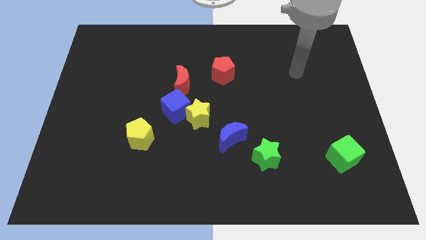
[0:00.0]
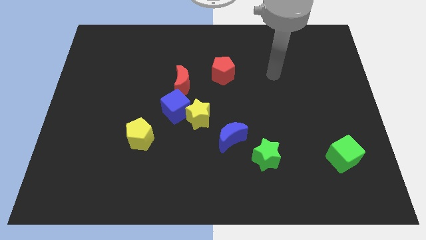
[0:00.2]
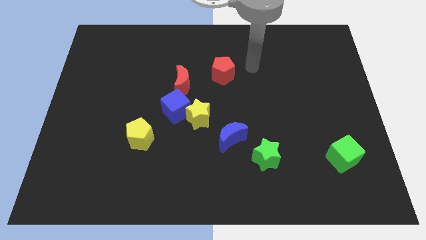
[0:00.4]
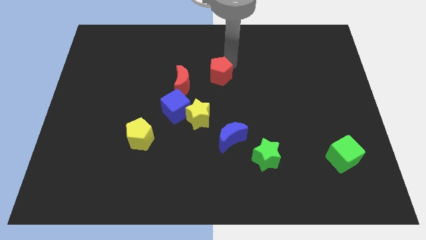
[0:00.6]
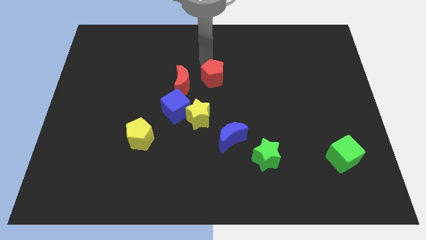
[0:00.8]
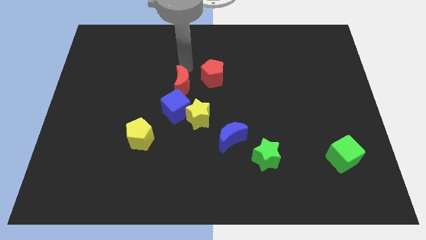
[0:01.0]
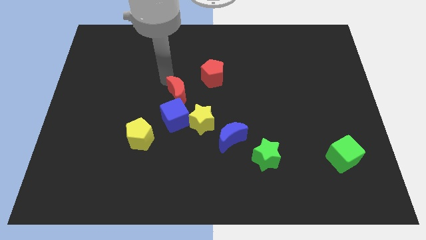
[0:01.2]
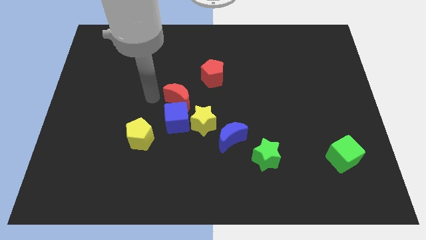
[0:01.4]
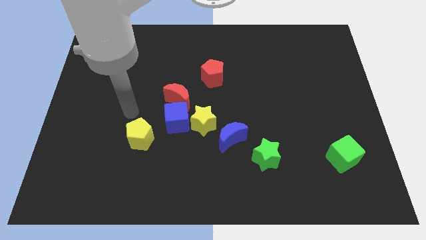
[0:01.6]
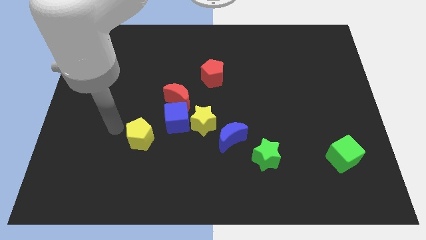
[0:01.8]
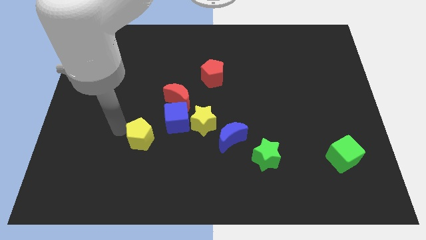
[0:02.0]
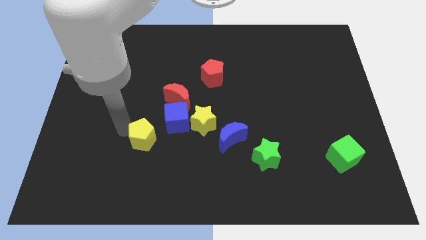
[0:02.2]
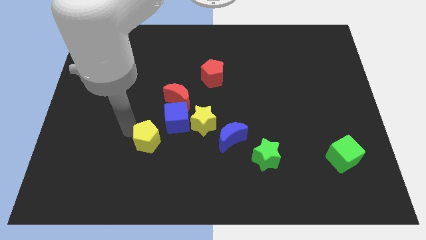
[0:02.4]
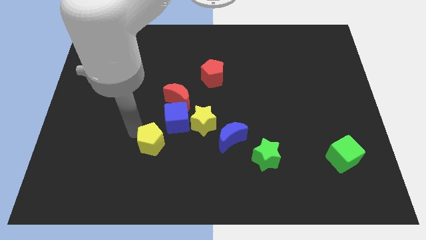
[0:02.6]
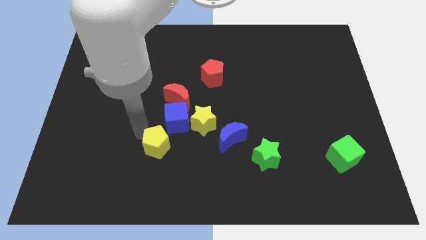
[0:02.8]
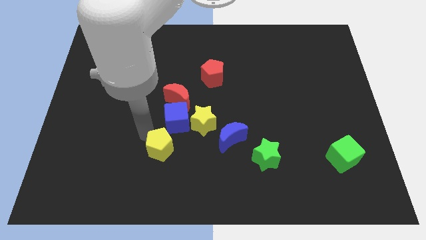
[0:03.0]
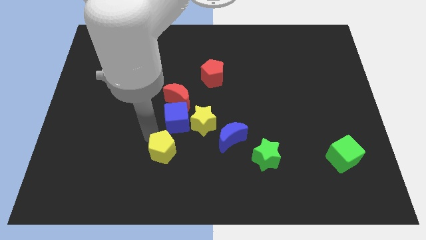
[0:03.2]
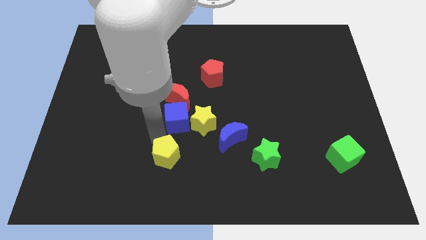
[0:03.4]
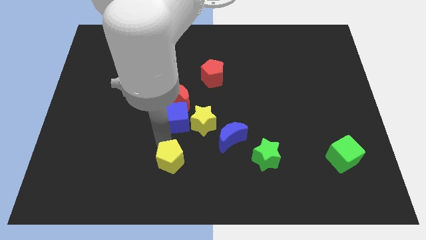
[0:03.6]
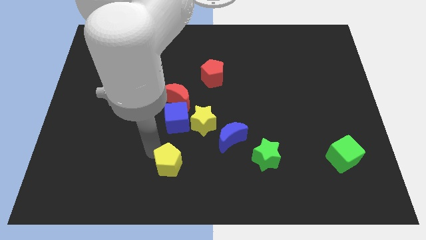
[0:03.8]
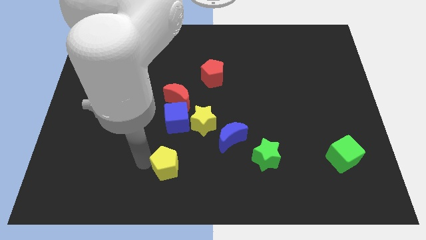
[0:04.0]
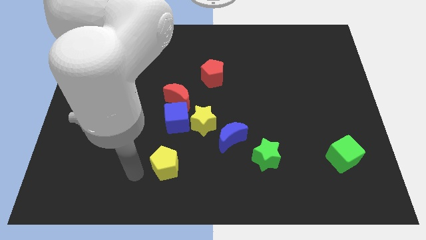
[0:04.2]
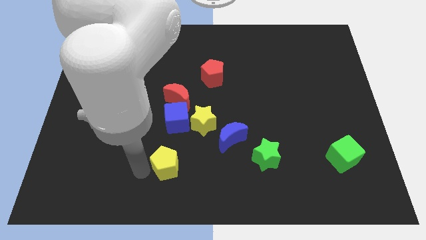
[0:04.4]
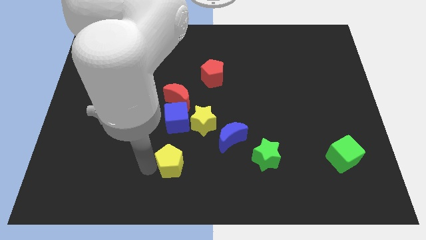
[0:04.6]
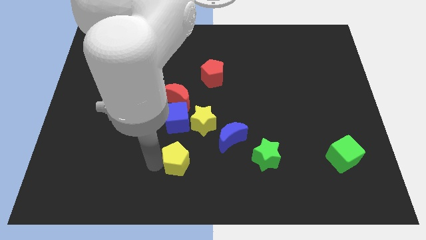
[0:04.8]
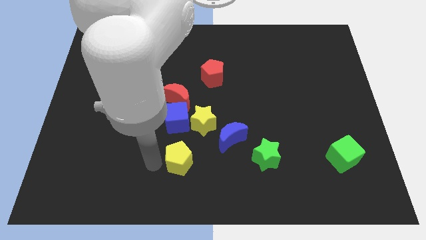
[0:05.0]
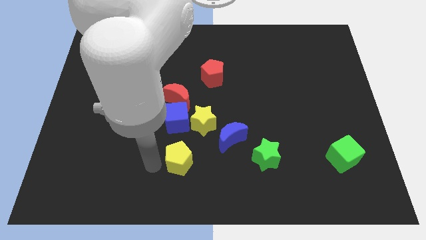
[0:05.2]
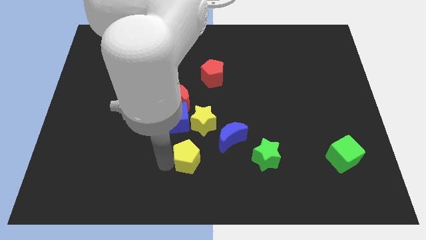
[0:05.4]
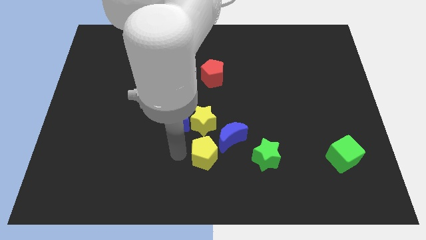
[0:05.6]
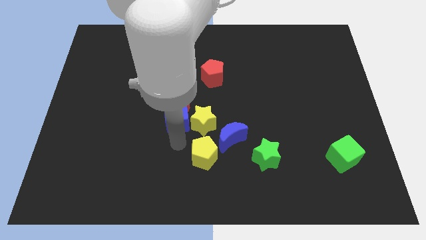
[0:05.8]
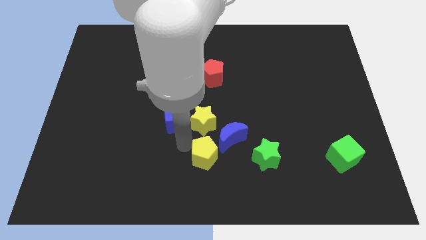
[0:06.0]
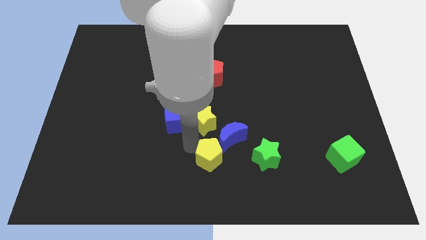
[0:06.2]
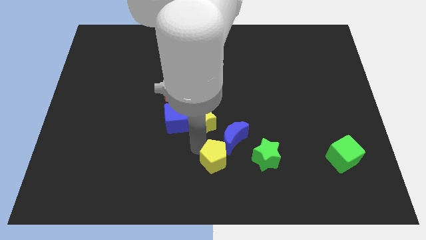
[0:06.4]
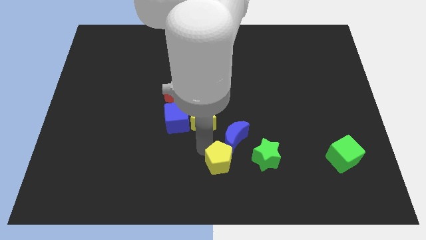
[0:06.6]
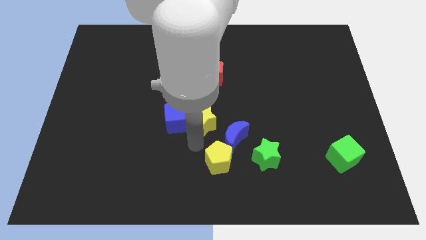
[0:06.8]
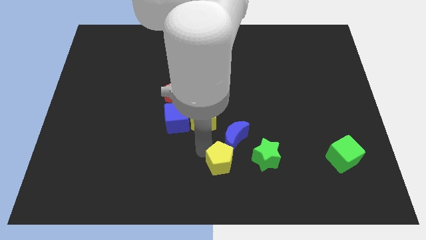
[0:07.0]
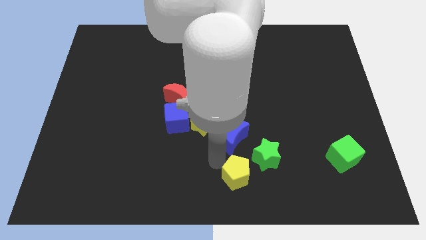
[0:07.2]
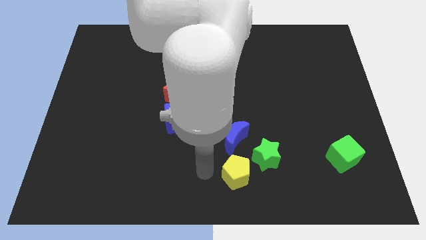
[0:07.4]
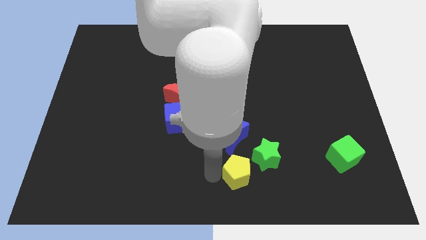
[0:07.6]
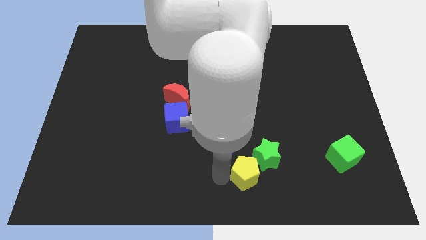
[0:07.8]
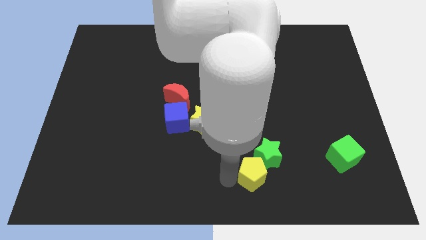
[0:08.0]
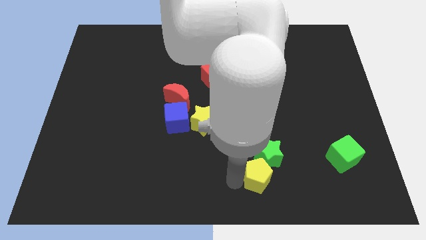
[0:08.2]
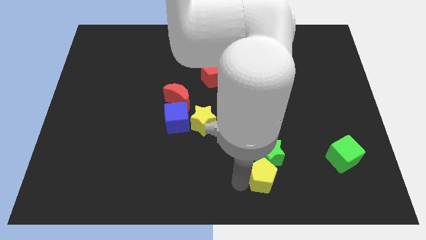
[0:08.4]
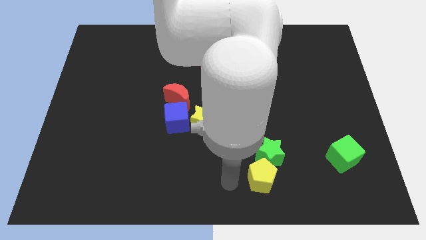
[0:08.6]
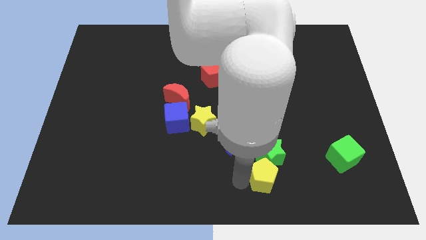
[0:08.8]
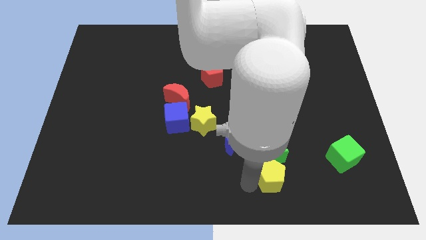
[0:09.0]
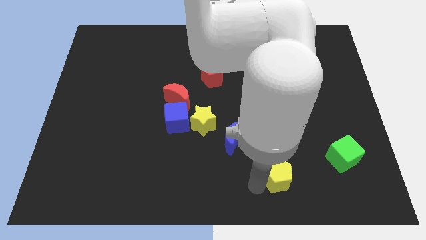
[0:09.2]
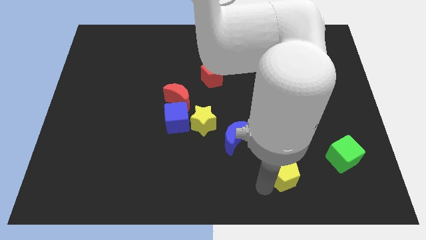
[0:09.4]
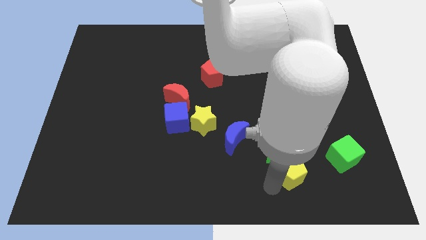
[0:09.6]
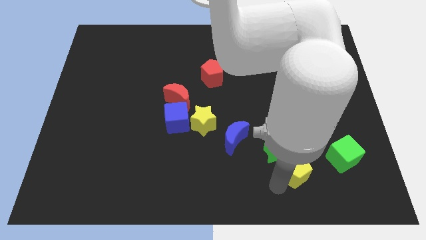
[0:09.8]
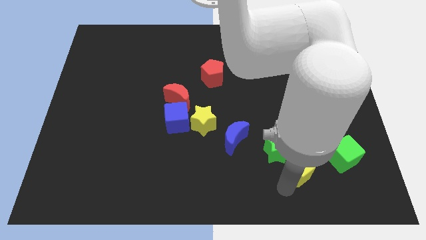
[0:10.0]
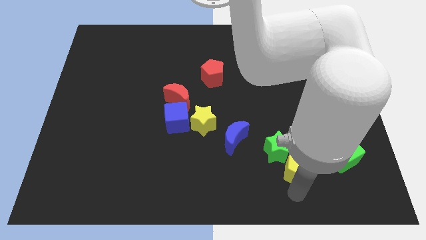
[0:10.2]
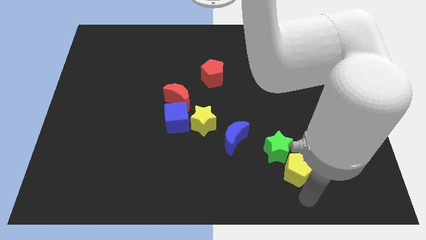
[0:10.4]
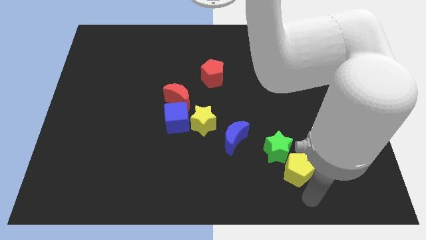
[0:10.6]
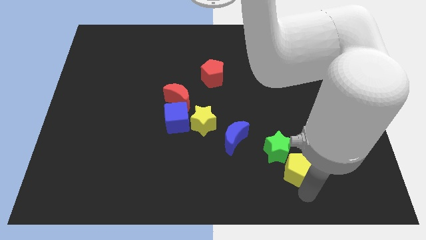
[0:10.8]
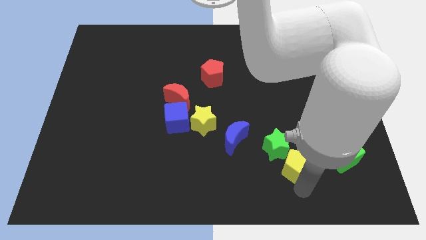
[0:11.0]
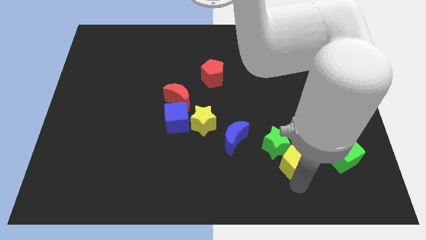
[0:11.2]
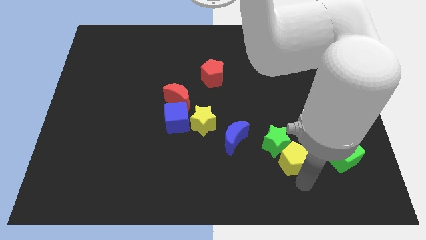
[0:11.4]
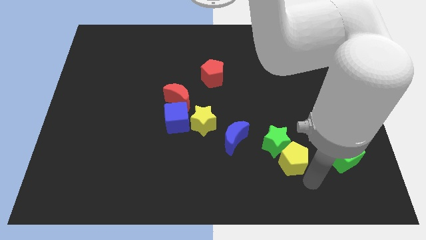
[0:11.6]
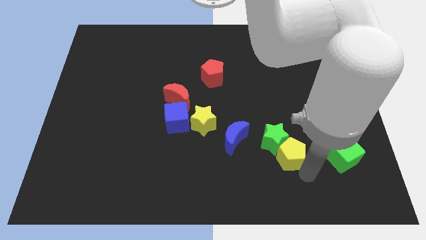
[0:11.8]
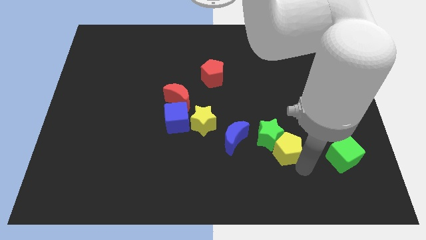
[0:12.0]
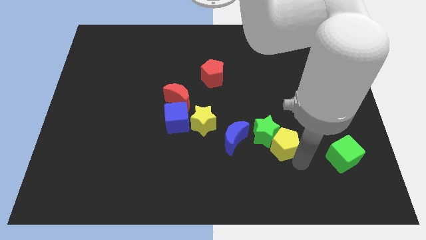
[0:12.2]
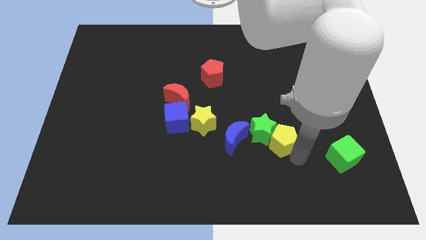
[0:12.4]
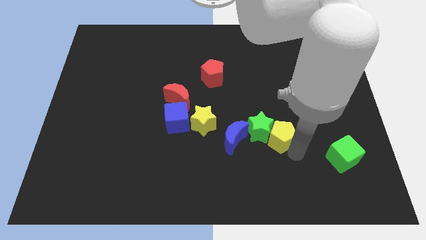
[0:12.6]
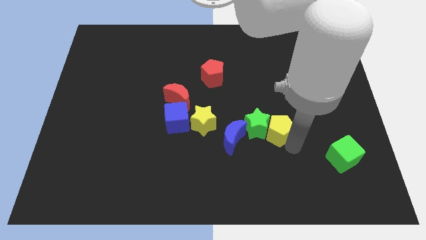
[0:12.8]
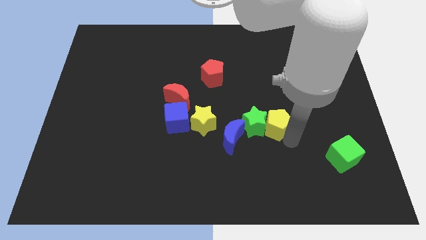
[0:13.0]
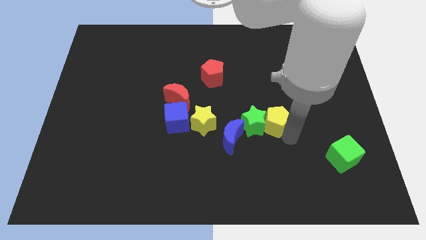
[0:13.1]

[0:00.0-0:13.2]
put the yellow pentagon right of the yellow star

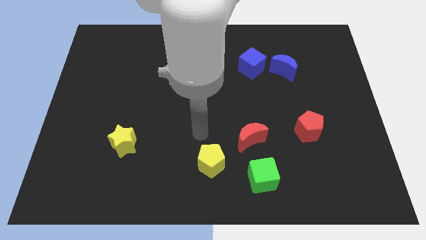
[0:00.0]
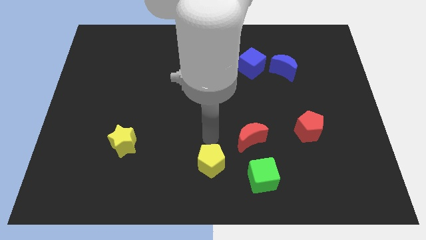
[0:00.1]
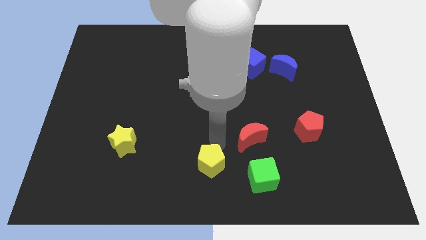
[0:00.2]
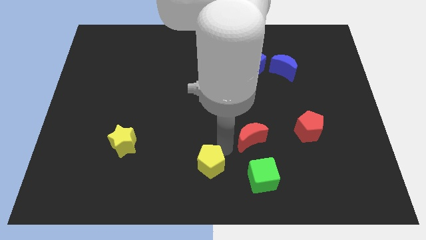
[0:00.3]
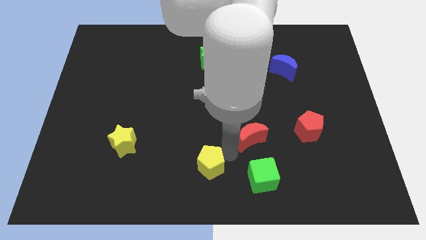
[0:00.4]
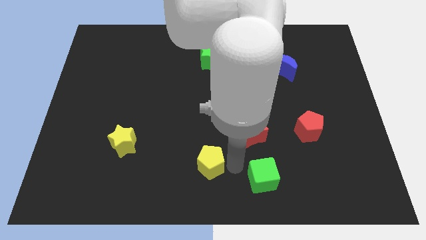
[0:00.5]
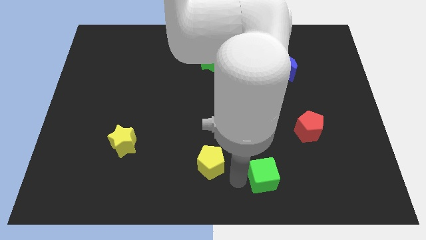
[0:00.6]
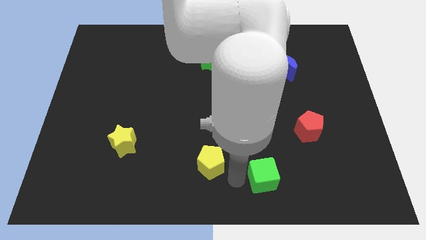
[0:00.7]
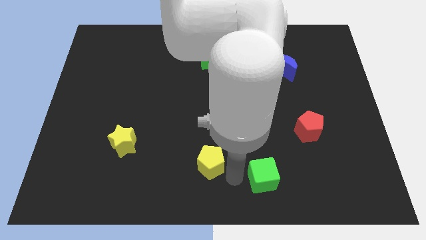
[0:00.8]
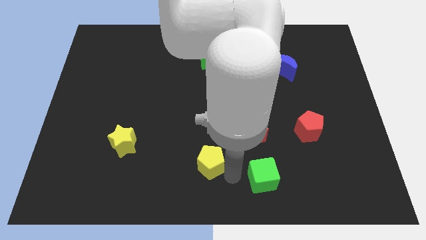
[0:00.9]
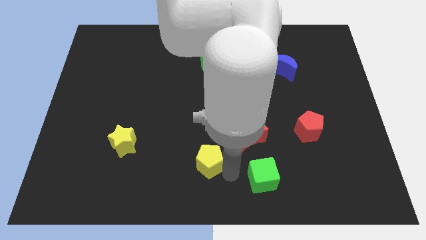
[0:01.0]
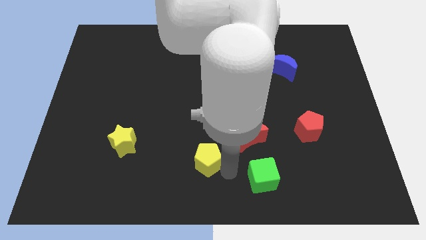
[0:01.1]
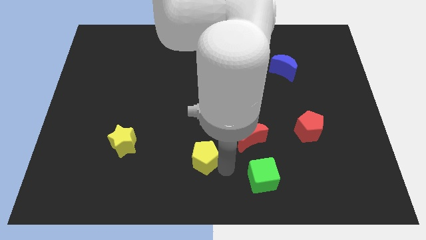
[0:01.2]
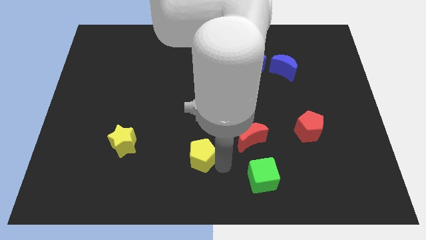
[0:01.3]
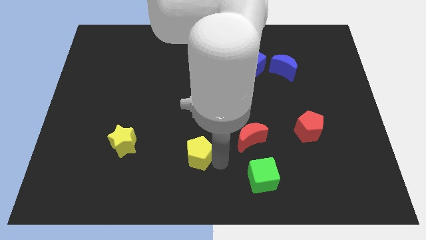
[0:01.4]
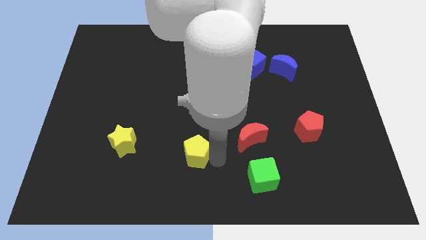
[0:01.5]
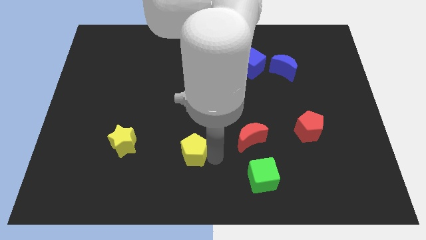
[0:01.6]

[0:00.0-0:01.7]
push the yellow pentagon right of the yellow star
